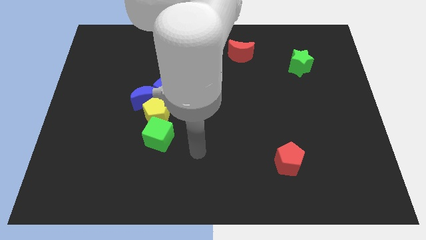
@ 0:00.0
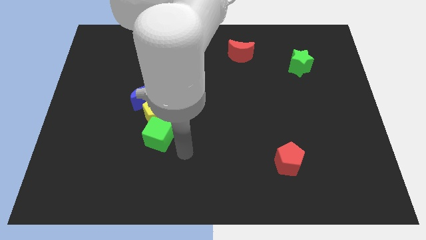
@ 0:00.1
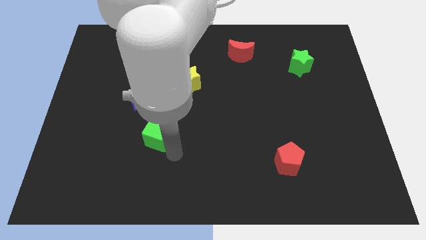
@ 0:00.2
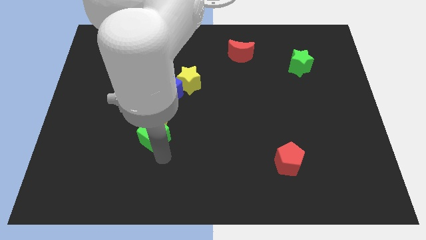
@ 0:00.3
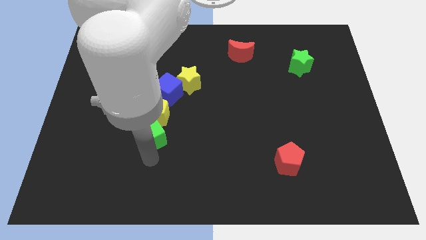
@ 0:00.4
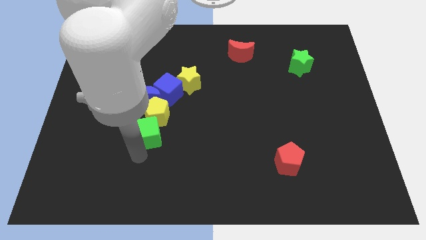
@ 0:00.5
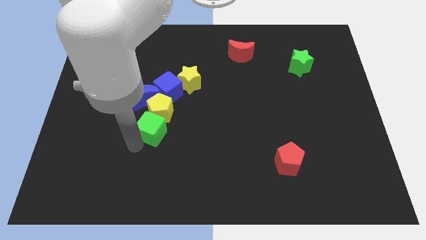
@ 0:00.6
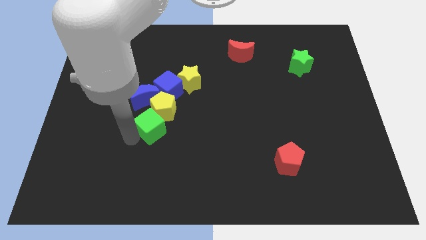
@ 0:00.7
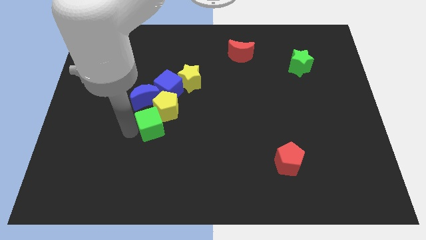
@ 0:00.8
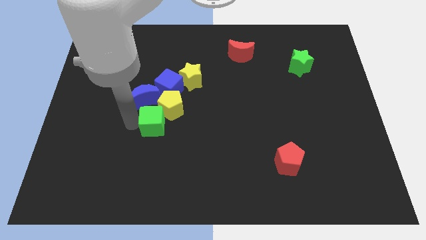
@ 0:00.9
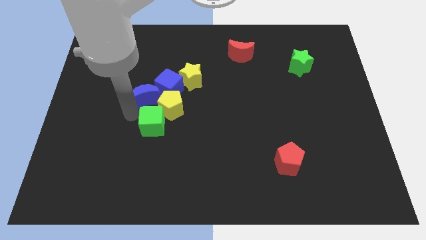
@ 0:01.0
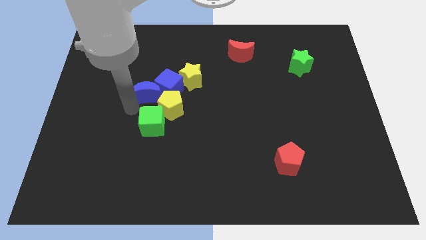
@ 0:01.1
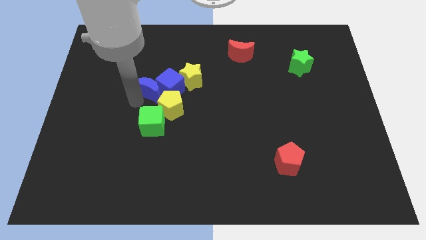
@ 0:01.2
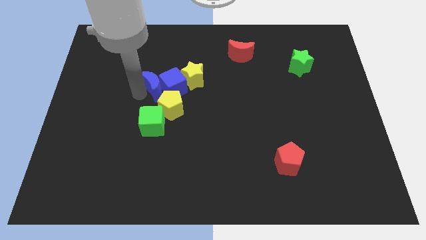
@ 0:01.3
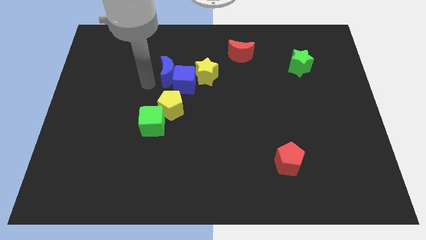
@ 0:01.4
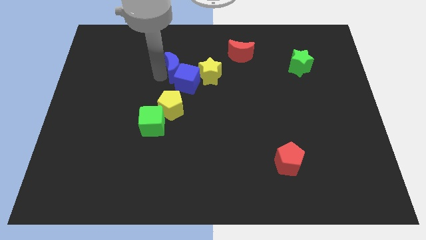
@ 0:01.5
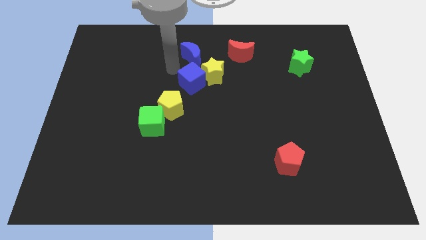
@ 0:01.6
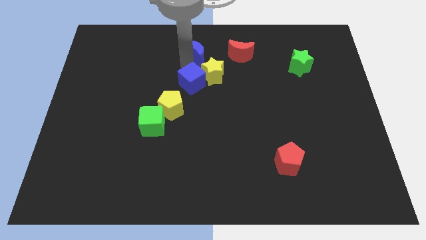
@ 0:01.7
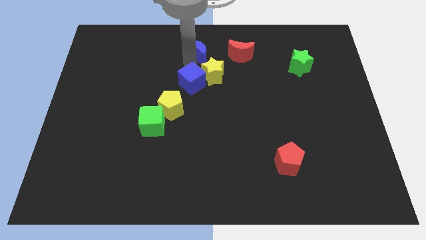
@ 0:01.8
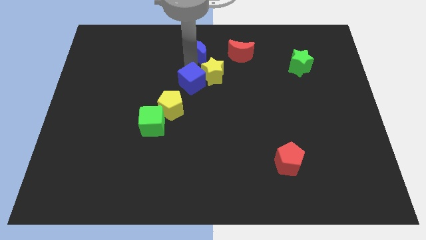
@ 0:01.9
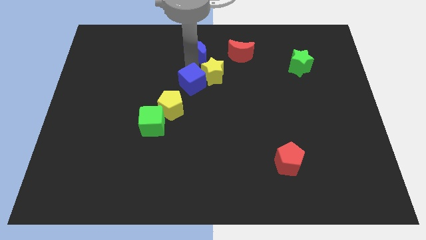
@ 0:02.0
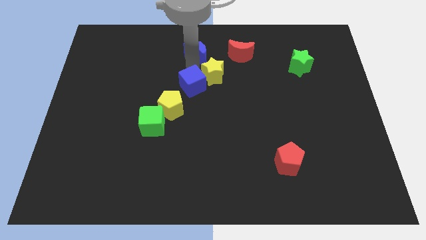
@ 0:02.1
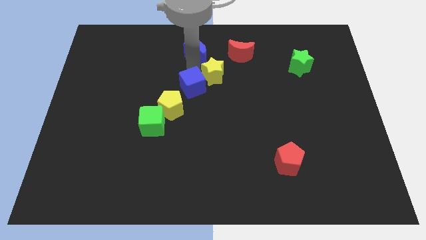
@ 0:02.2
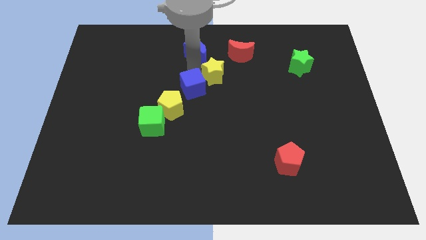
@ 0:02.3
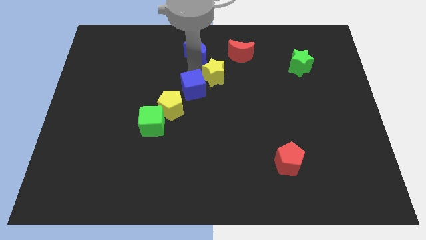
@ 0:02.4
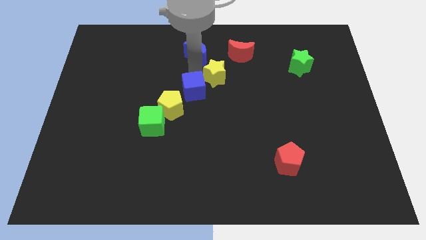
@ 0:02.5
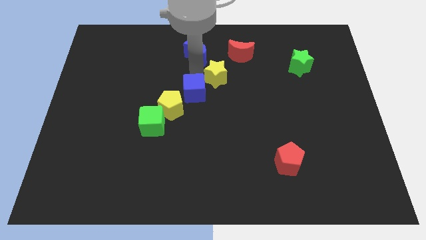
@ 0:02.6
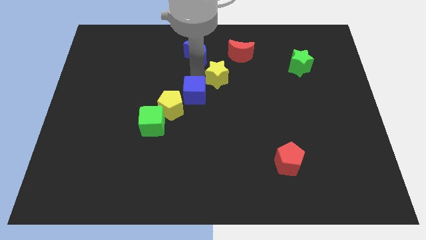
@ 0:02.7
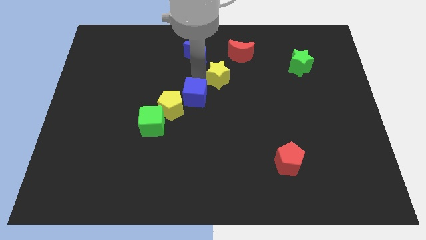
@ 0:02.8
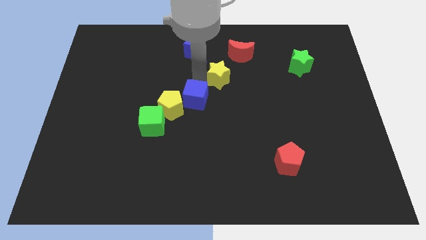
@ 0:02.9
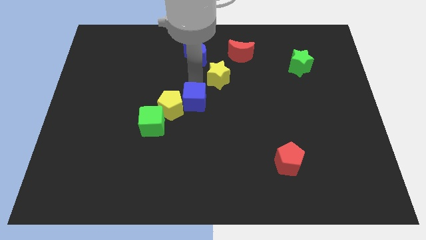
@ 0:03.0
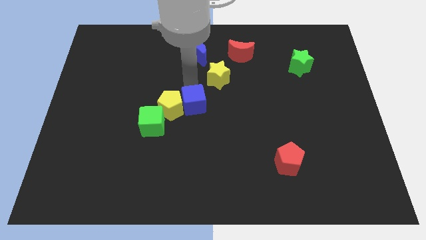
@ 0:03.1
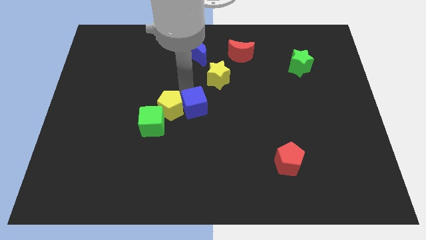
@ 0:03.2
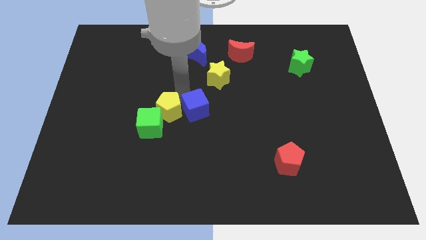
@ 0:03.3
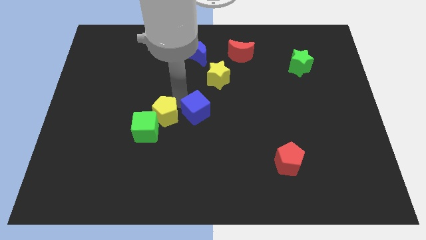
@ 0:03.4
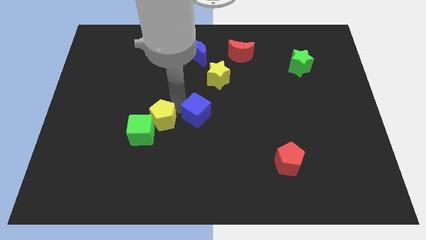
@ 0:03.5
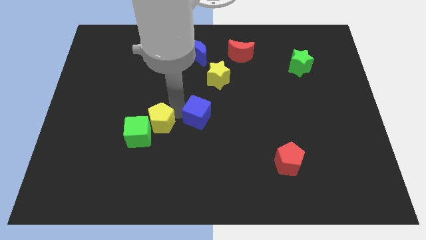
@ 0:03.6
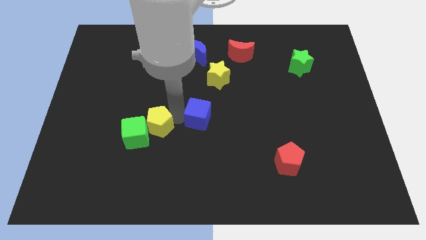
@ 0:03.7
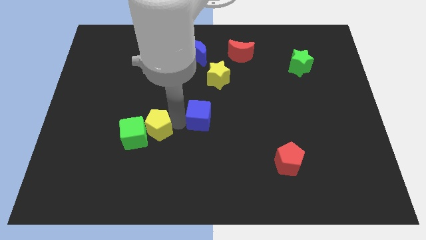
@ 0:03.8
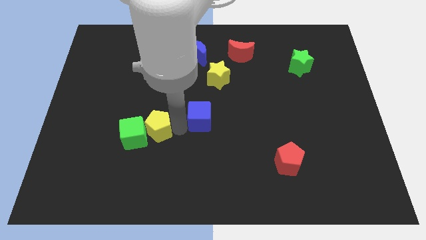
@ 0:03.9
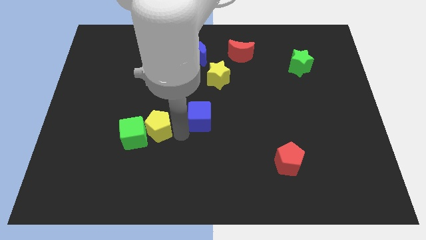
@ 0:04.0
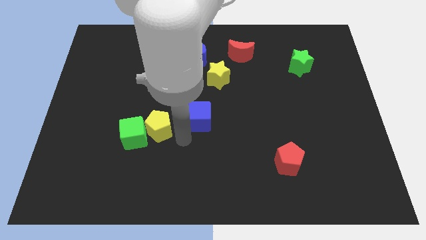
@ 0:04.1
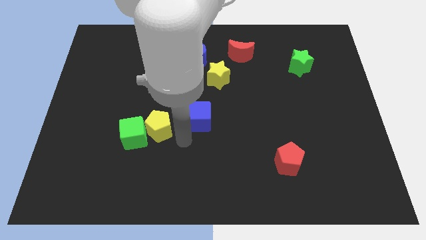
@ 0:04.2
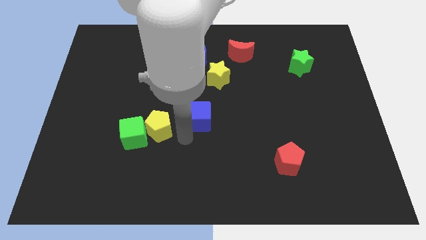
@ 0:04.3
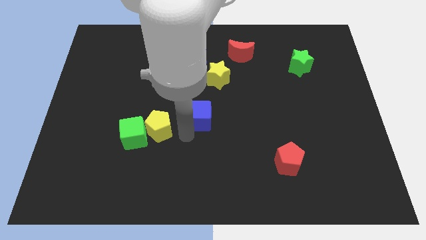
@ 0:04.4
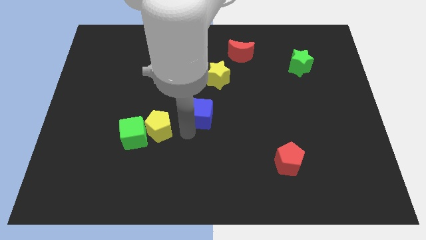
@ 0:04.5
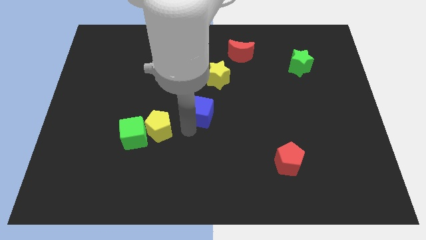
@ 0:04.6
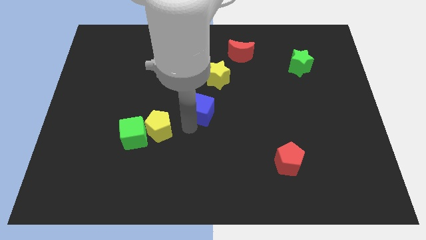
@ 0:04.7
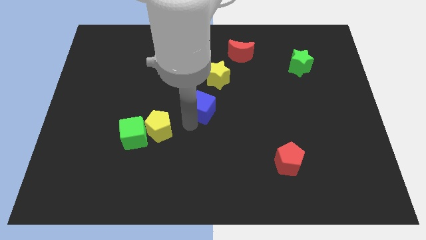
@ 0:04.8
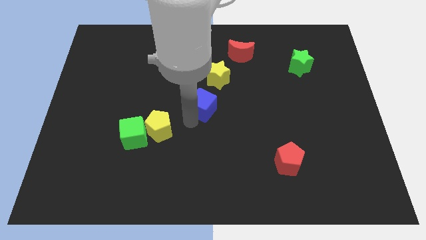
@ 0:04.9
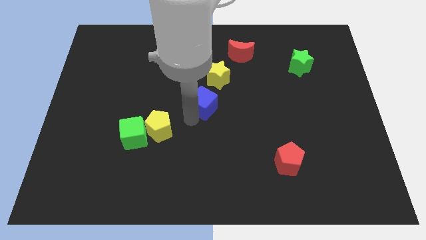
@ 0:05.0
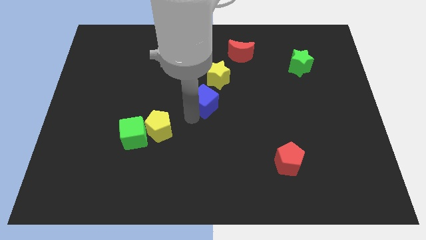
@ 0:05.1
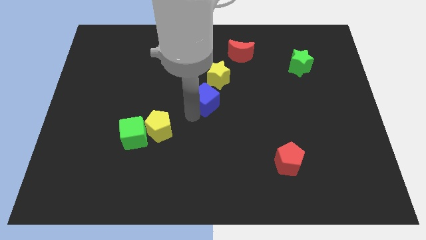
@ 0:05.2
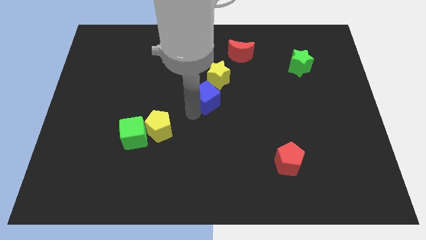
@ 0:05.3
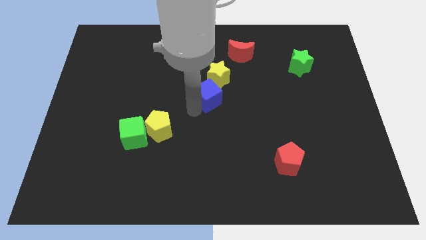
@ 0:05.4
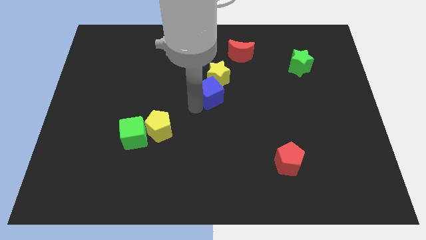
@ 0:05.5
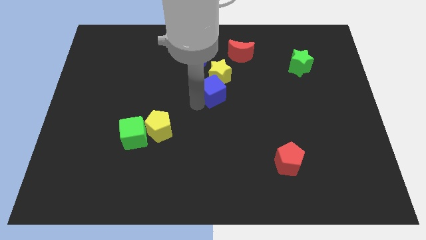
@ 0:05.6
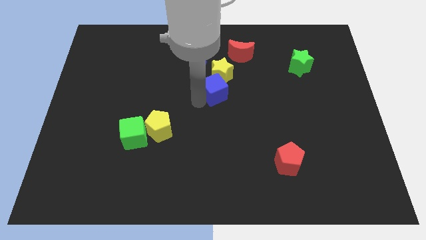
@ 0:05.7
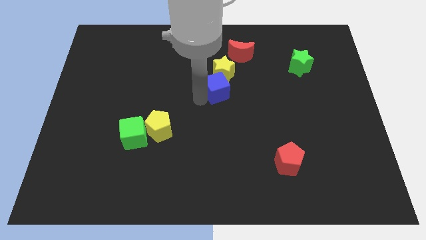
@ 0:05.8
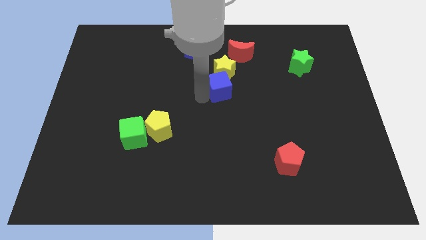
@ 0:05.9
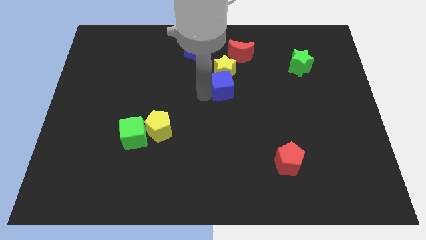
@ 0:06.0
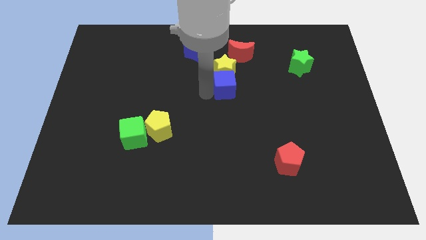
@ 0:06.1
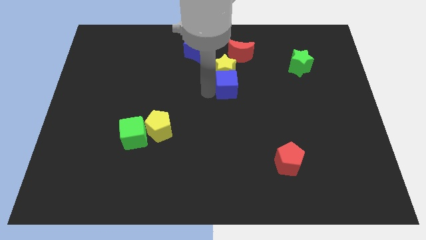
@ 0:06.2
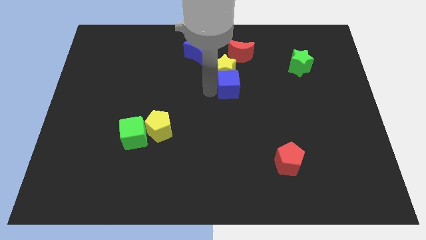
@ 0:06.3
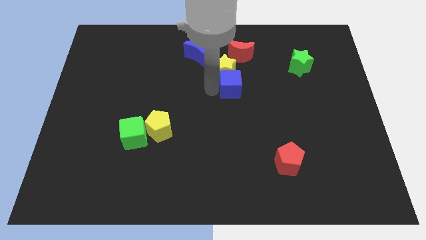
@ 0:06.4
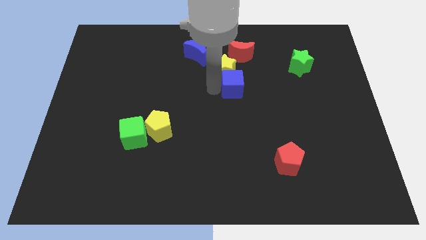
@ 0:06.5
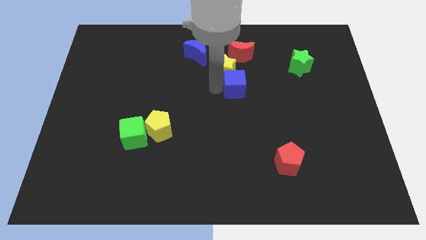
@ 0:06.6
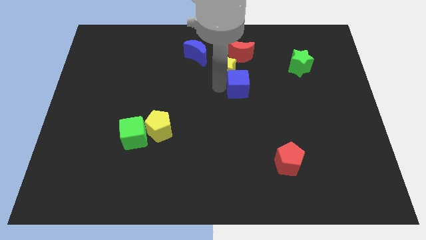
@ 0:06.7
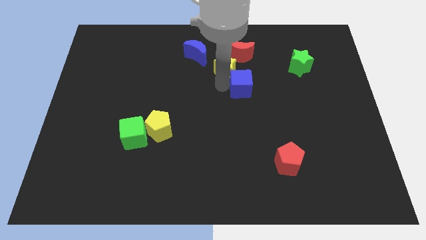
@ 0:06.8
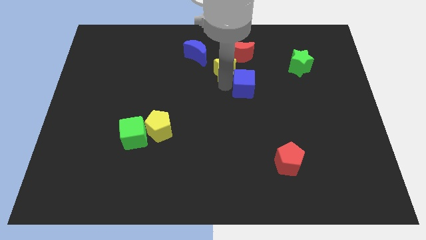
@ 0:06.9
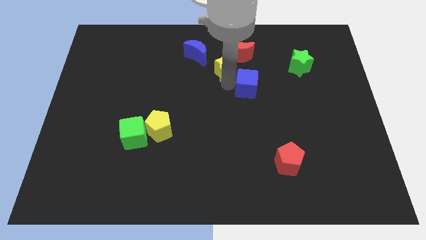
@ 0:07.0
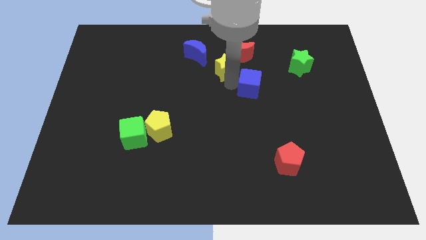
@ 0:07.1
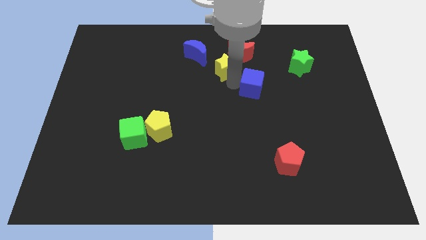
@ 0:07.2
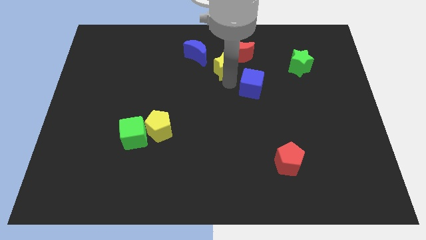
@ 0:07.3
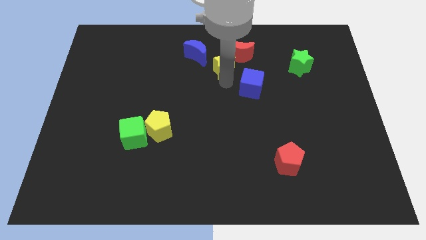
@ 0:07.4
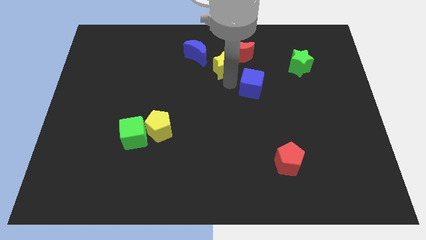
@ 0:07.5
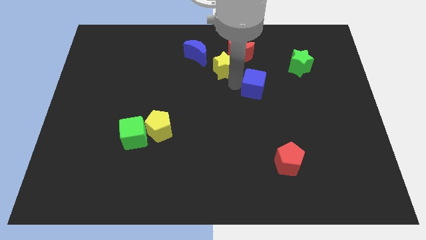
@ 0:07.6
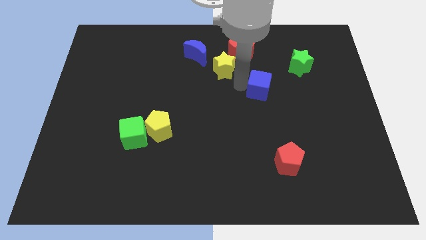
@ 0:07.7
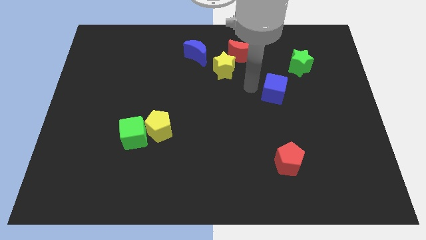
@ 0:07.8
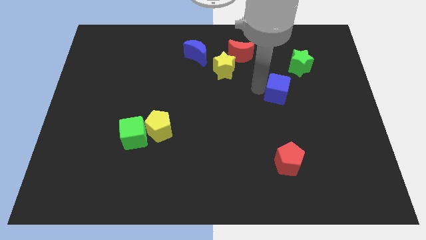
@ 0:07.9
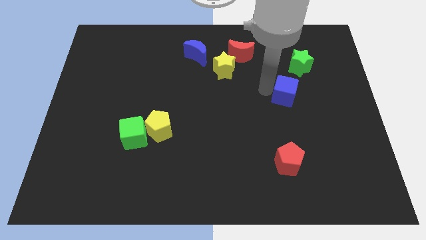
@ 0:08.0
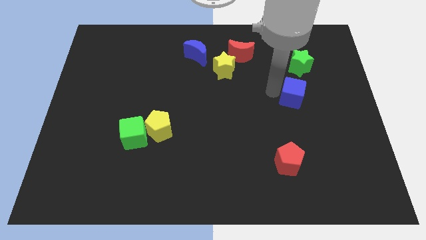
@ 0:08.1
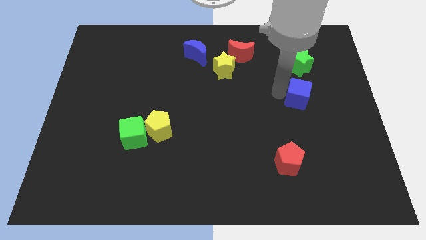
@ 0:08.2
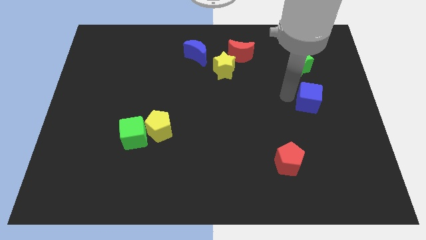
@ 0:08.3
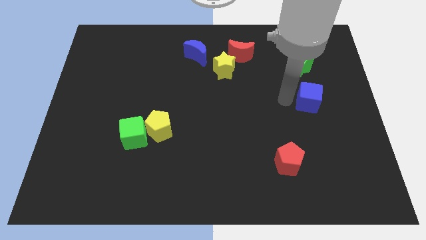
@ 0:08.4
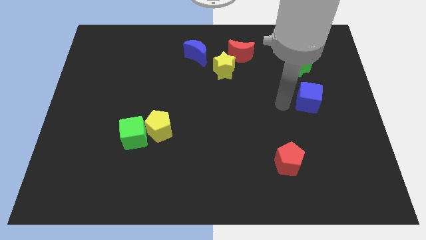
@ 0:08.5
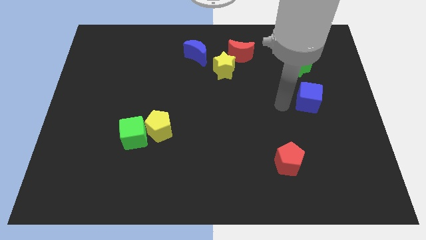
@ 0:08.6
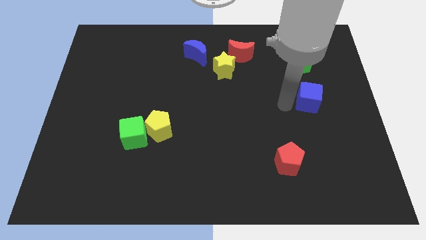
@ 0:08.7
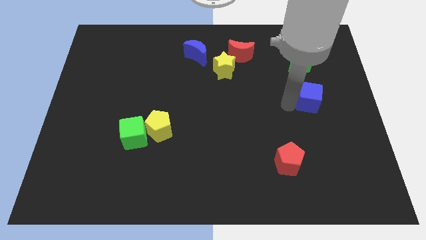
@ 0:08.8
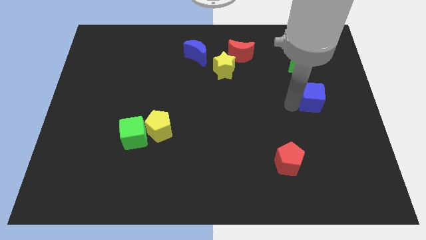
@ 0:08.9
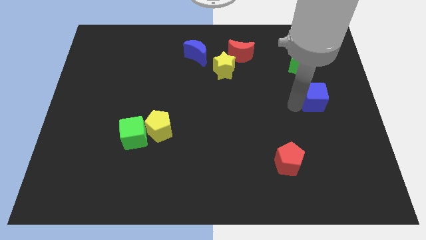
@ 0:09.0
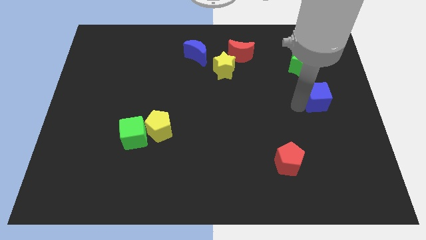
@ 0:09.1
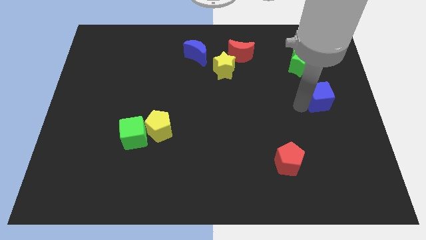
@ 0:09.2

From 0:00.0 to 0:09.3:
move the blue cube to the right side of the board
